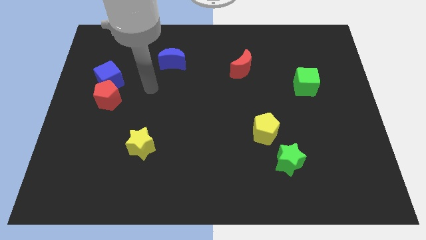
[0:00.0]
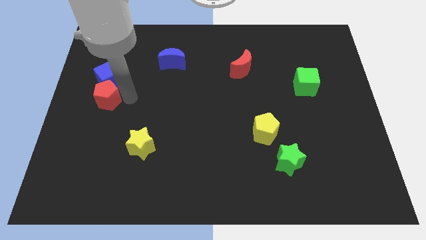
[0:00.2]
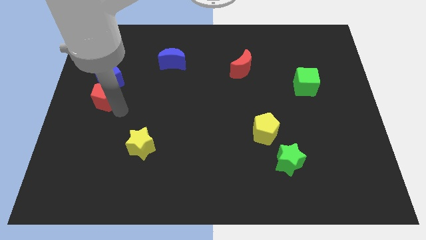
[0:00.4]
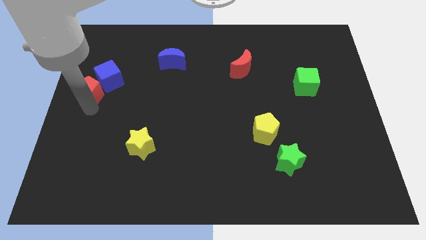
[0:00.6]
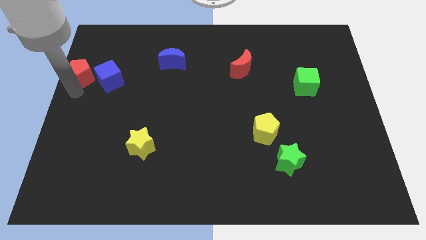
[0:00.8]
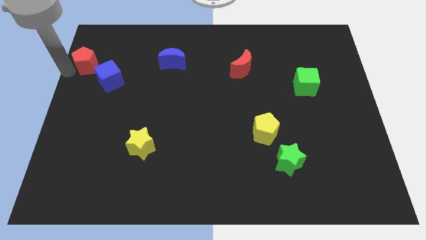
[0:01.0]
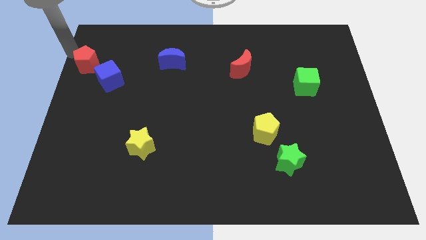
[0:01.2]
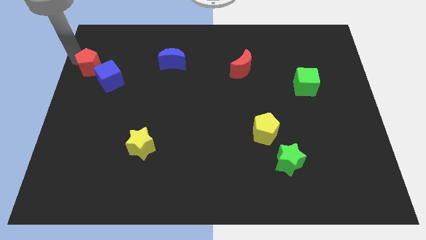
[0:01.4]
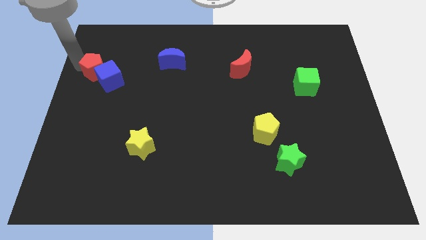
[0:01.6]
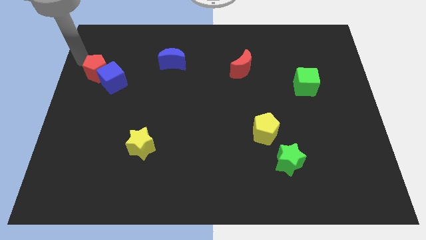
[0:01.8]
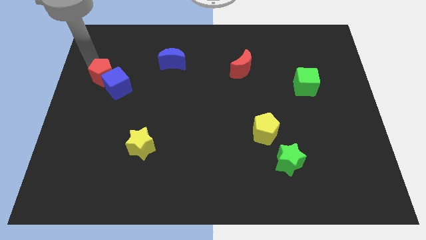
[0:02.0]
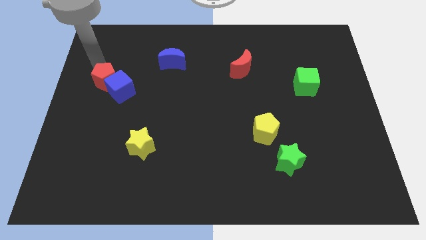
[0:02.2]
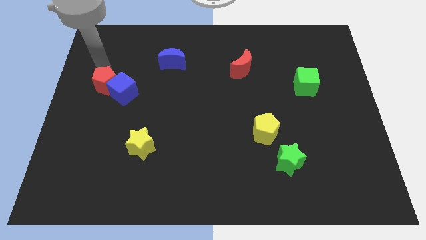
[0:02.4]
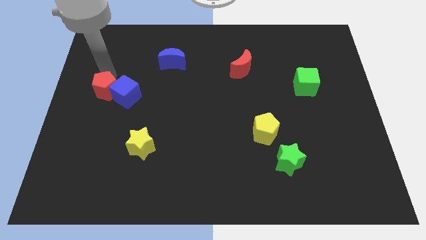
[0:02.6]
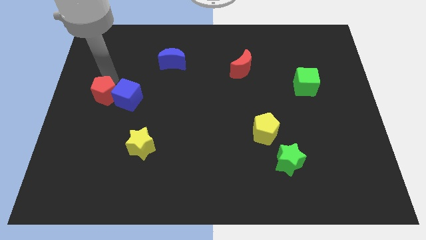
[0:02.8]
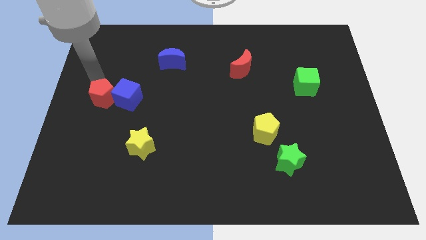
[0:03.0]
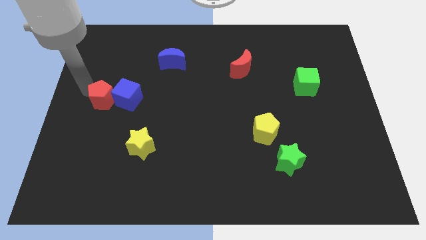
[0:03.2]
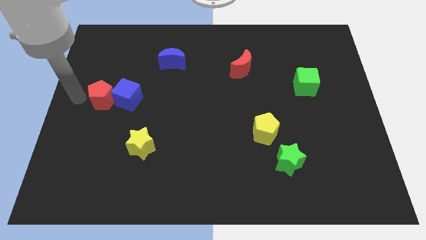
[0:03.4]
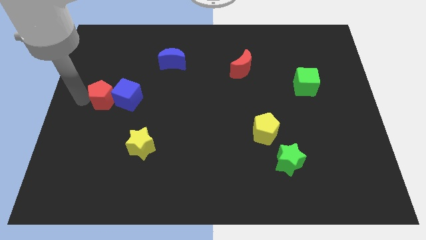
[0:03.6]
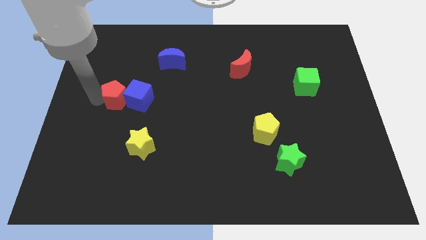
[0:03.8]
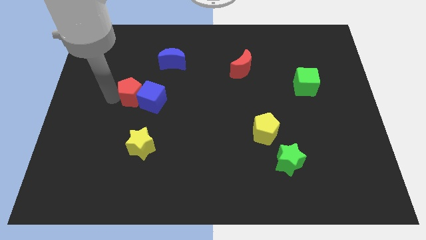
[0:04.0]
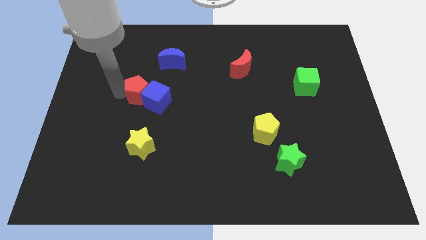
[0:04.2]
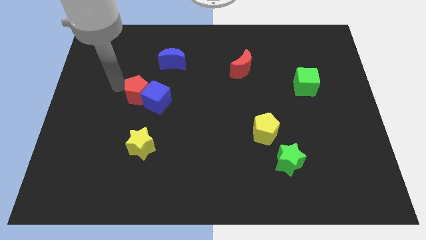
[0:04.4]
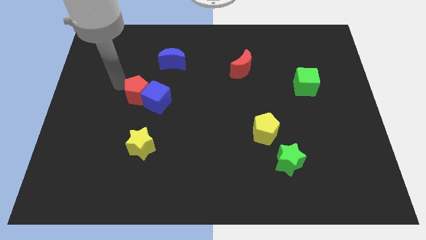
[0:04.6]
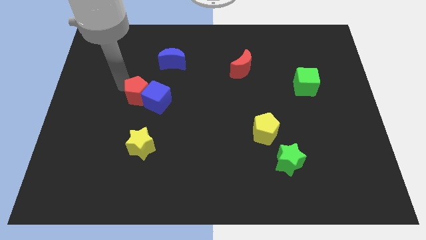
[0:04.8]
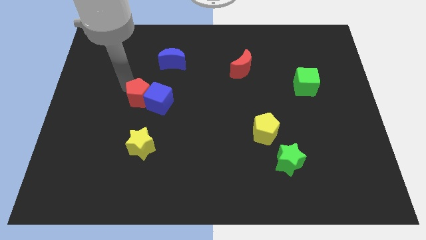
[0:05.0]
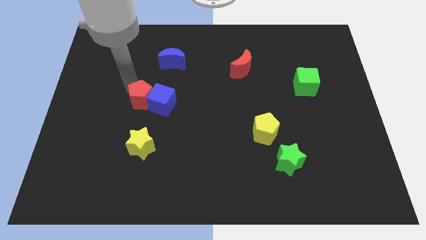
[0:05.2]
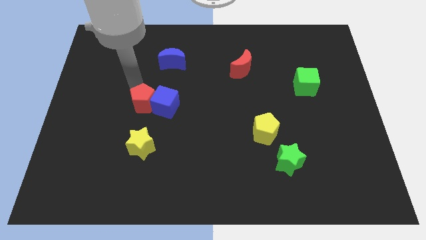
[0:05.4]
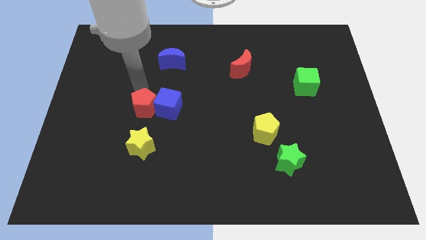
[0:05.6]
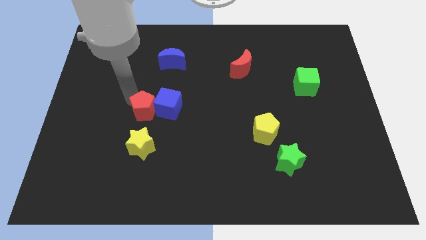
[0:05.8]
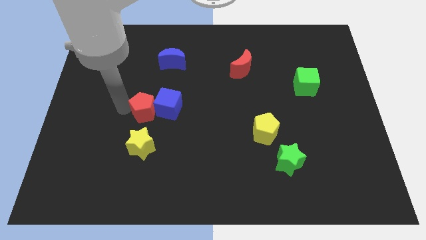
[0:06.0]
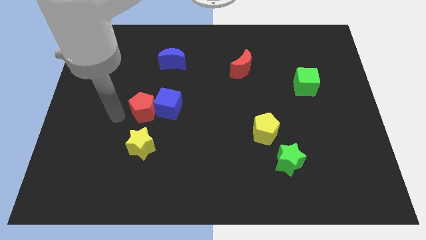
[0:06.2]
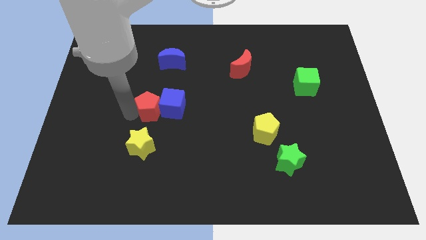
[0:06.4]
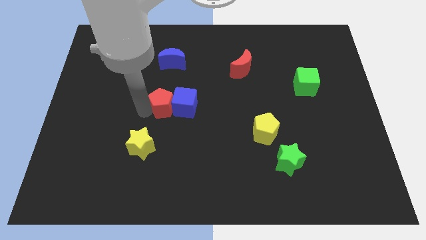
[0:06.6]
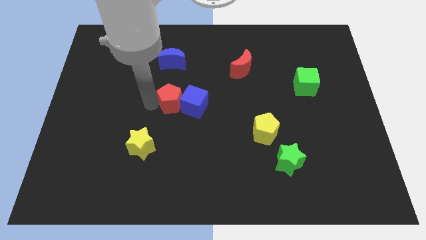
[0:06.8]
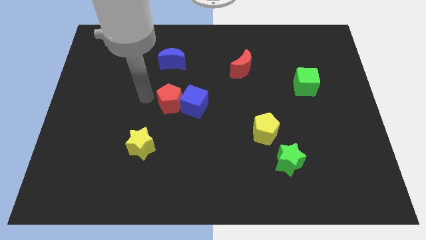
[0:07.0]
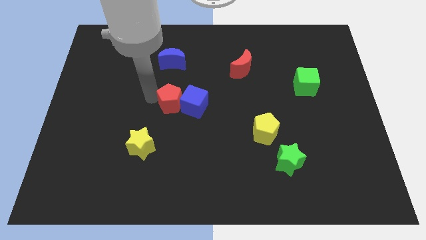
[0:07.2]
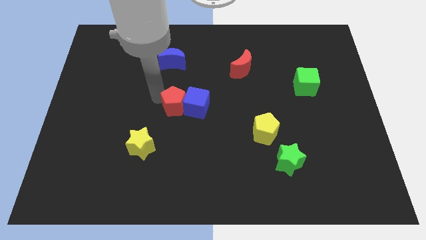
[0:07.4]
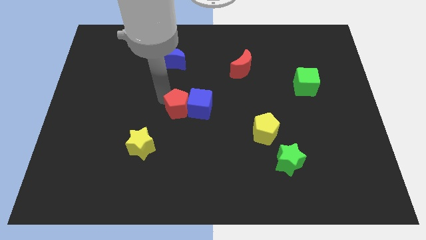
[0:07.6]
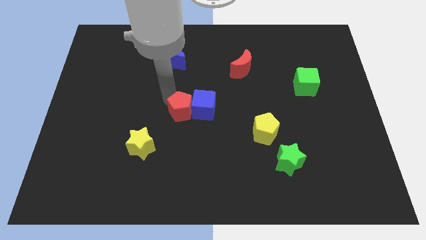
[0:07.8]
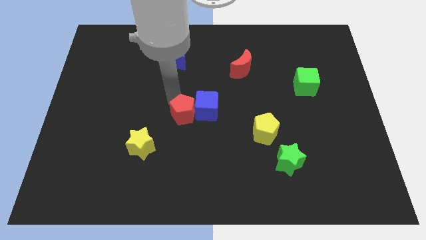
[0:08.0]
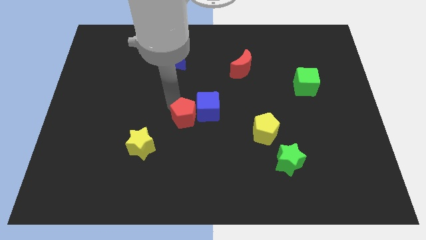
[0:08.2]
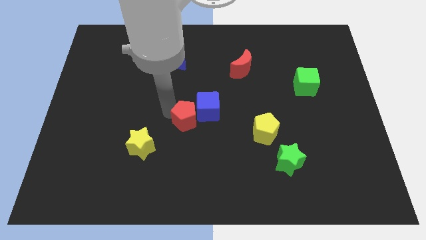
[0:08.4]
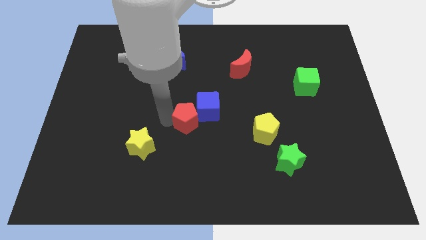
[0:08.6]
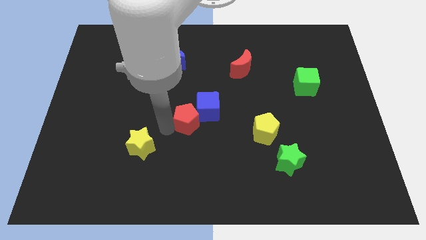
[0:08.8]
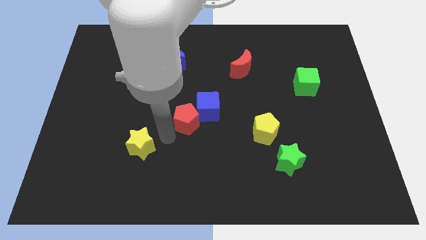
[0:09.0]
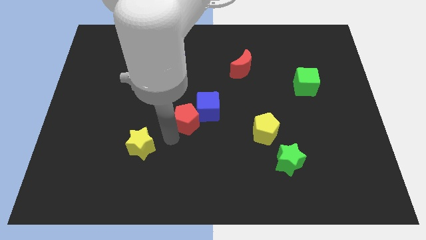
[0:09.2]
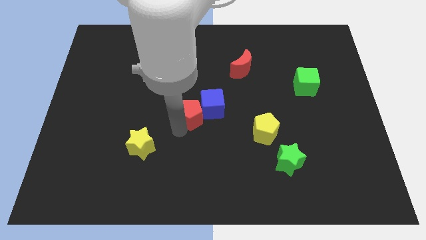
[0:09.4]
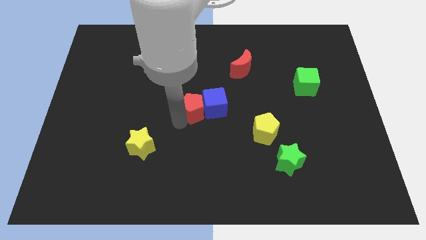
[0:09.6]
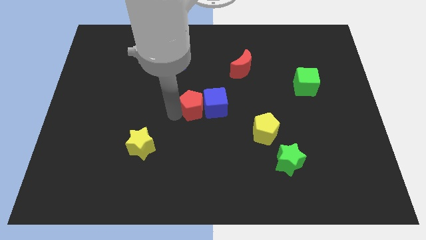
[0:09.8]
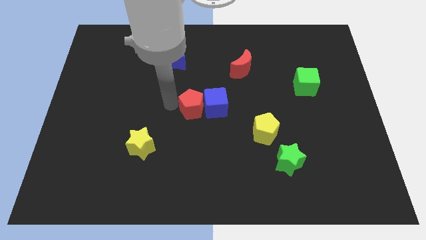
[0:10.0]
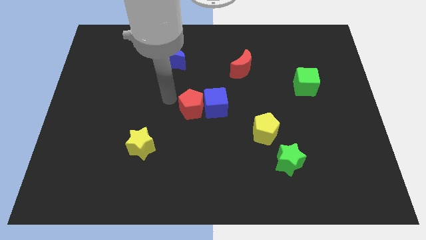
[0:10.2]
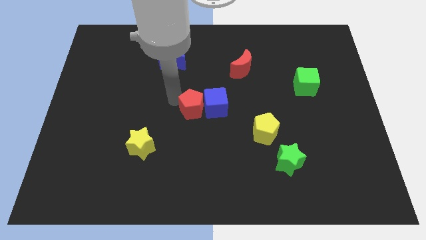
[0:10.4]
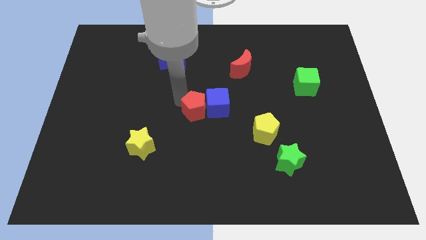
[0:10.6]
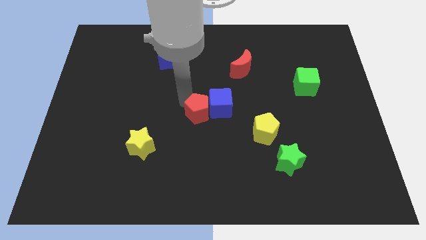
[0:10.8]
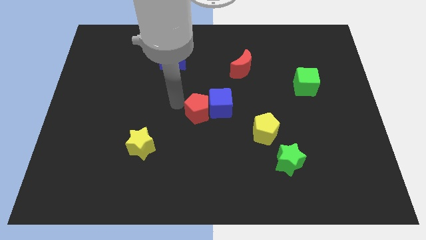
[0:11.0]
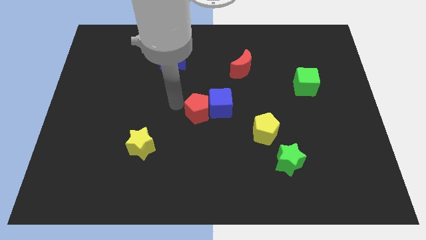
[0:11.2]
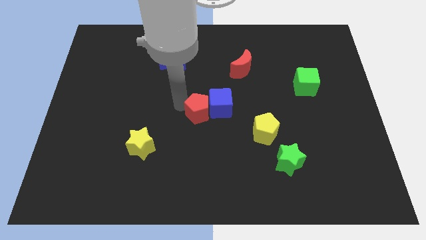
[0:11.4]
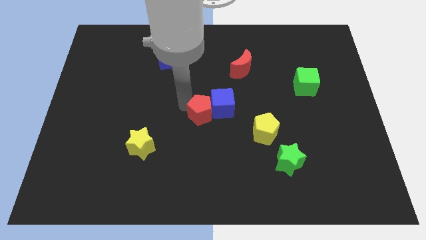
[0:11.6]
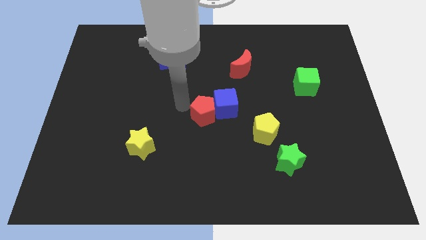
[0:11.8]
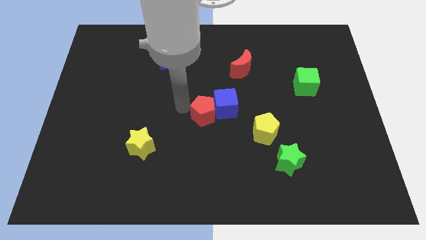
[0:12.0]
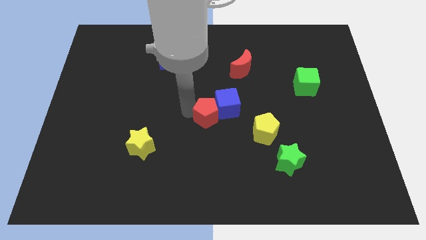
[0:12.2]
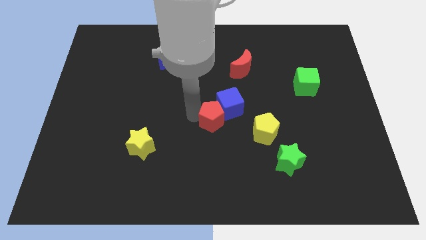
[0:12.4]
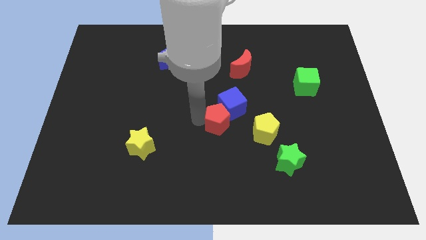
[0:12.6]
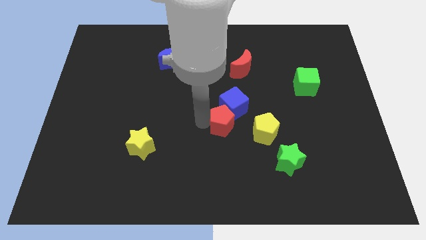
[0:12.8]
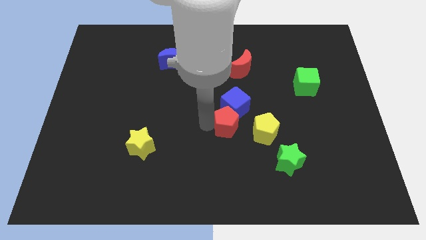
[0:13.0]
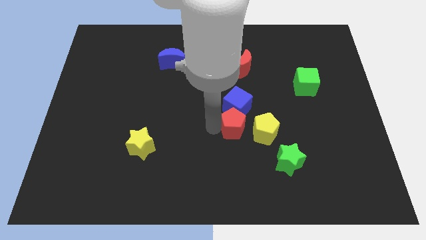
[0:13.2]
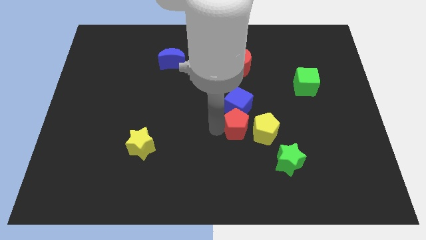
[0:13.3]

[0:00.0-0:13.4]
push the red pentagon to the yellow pentagon
